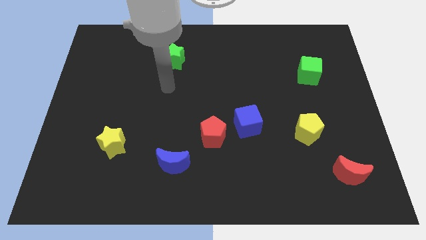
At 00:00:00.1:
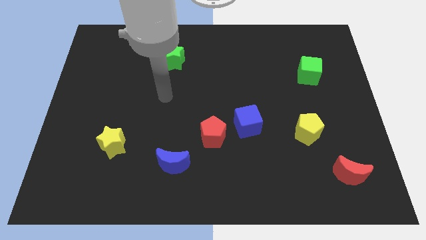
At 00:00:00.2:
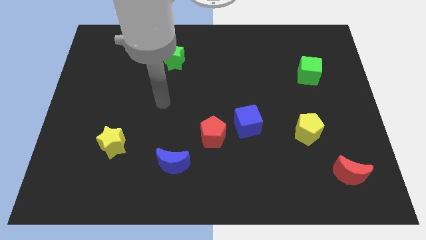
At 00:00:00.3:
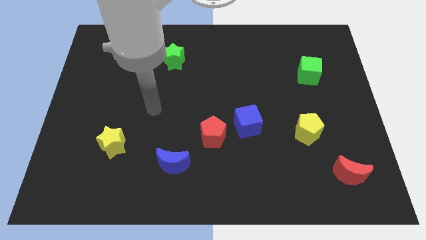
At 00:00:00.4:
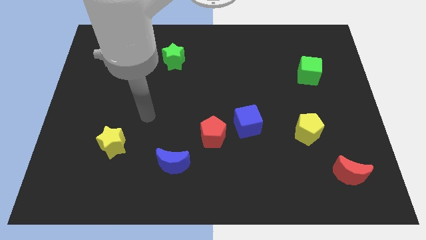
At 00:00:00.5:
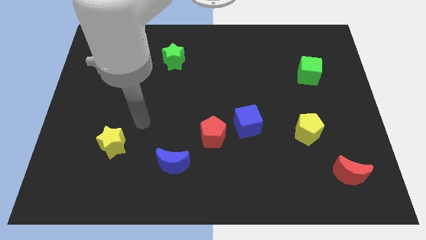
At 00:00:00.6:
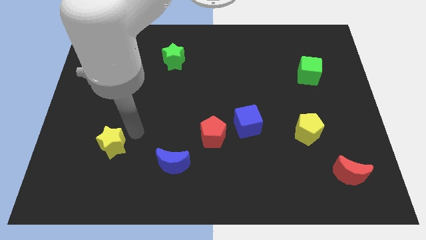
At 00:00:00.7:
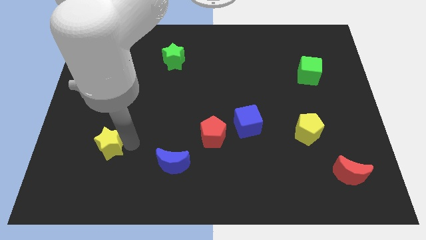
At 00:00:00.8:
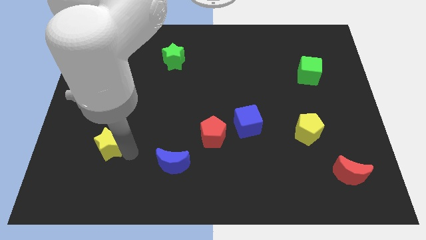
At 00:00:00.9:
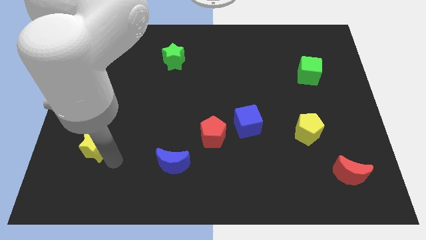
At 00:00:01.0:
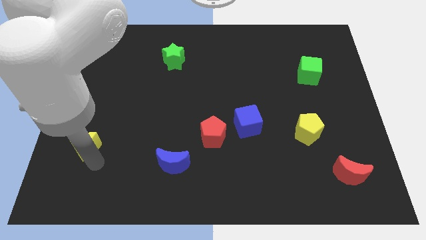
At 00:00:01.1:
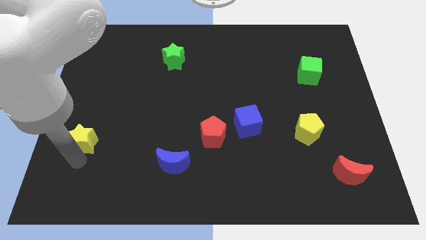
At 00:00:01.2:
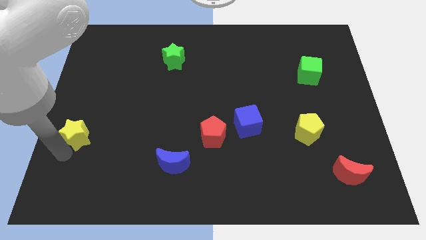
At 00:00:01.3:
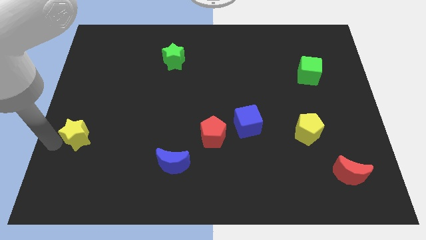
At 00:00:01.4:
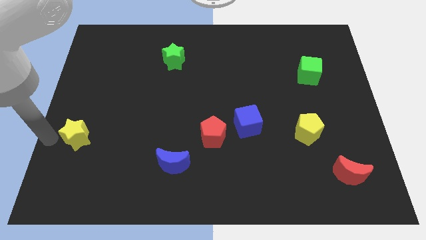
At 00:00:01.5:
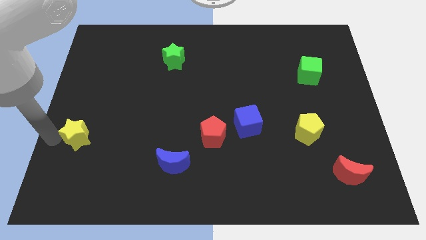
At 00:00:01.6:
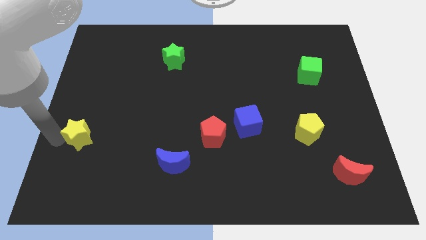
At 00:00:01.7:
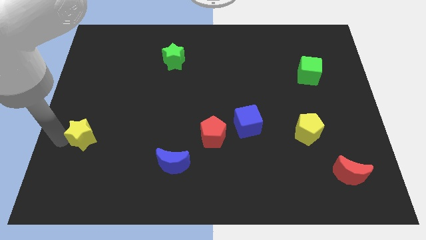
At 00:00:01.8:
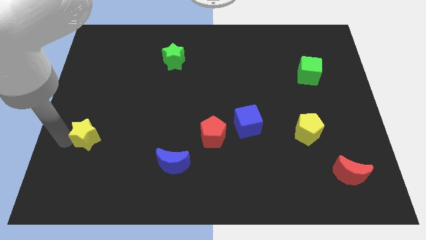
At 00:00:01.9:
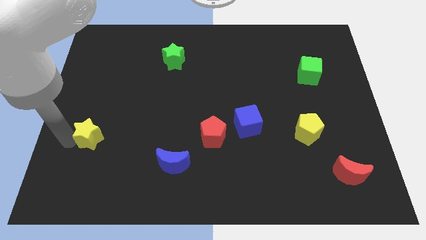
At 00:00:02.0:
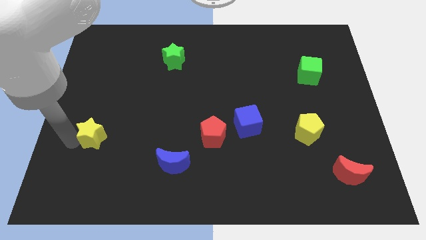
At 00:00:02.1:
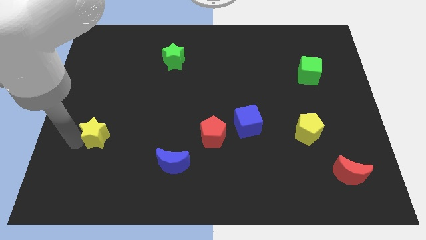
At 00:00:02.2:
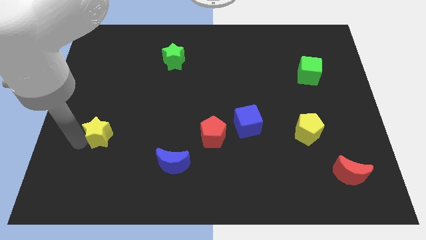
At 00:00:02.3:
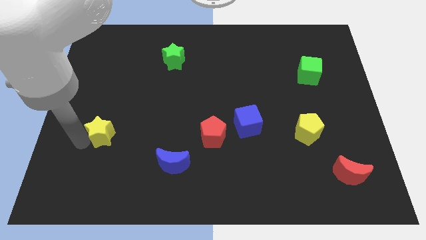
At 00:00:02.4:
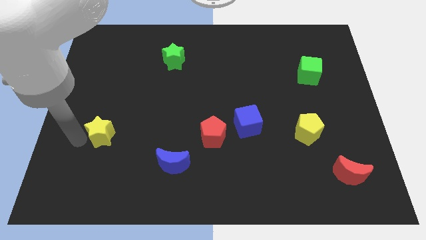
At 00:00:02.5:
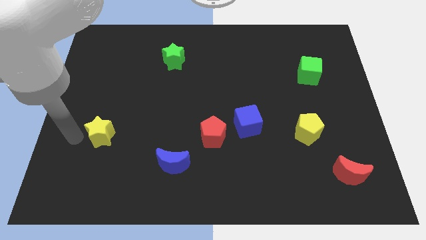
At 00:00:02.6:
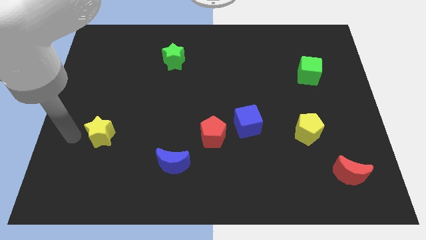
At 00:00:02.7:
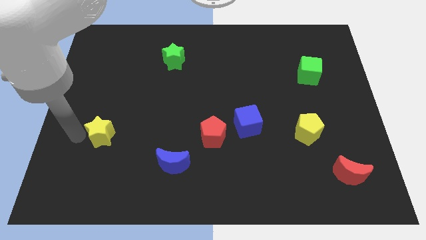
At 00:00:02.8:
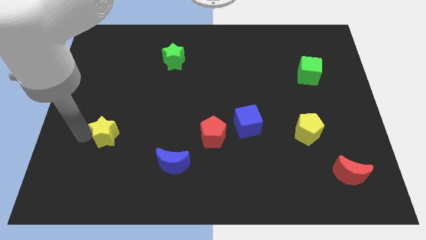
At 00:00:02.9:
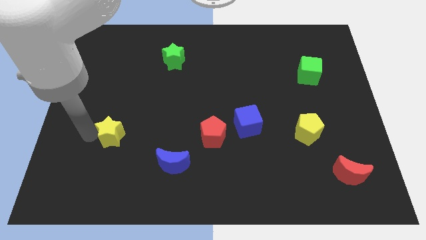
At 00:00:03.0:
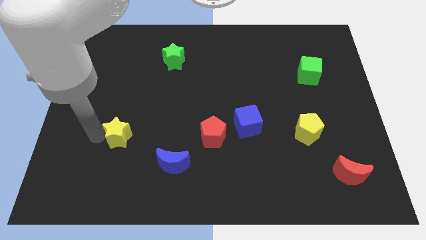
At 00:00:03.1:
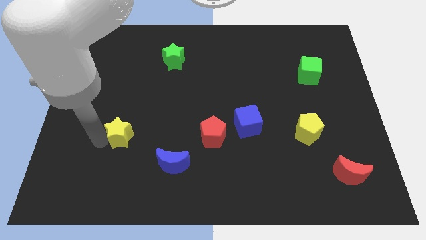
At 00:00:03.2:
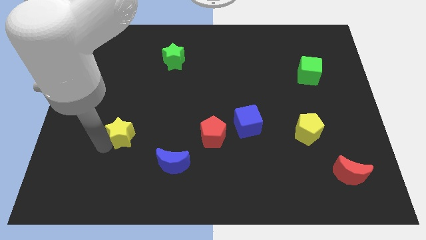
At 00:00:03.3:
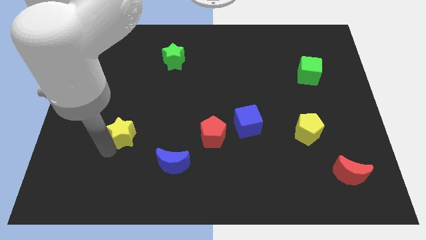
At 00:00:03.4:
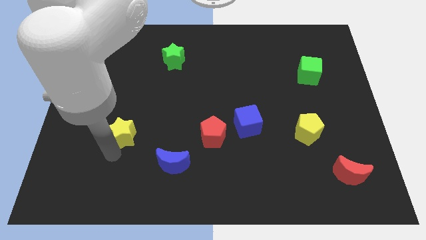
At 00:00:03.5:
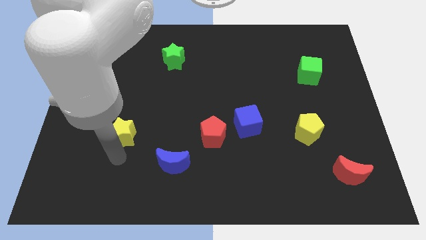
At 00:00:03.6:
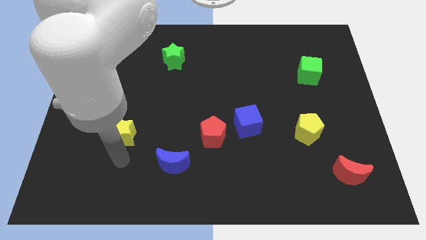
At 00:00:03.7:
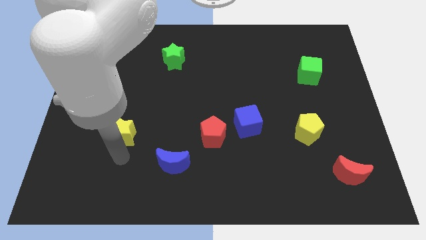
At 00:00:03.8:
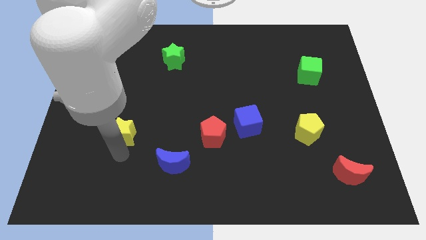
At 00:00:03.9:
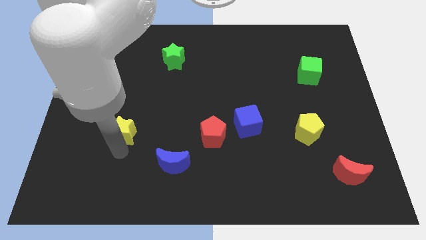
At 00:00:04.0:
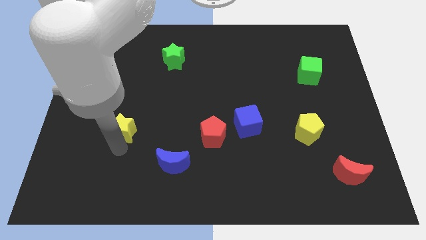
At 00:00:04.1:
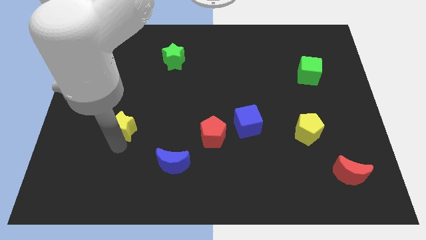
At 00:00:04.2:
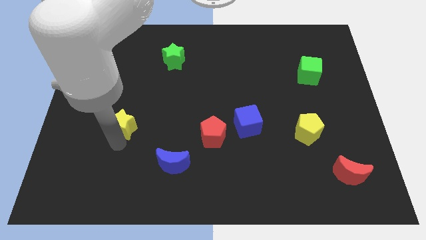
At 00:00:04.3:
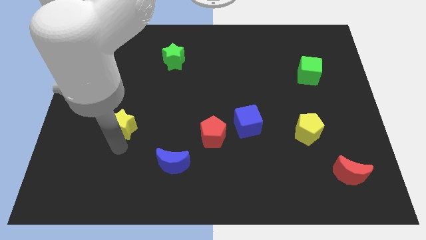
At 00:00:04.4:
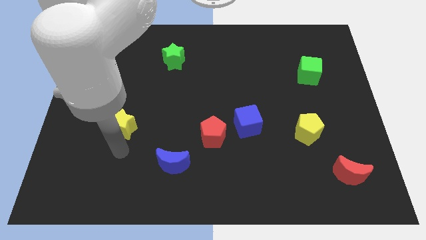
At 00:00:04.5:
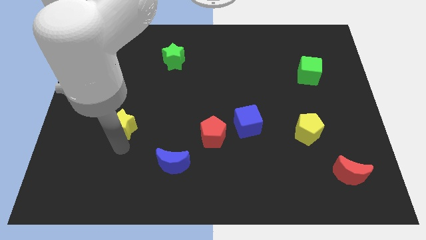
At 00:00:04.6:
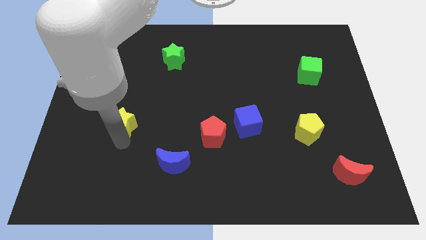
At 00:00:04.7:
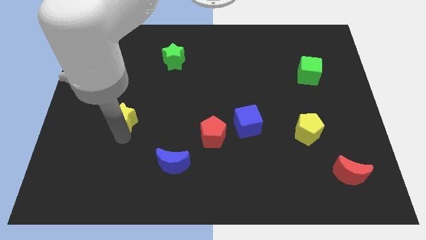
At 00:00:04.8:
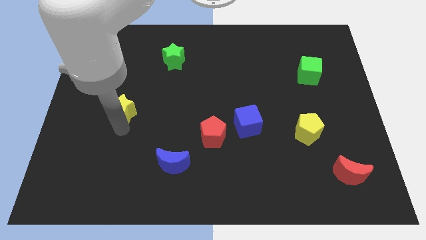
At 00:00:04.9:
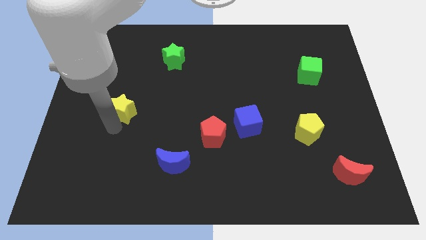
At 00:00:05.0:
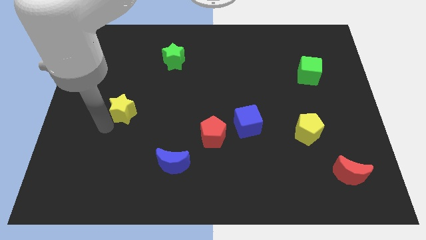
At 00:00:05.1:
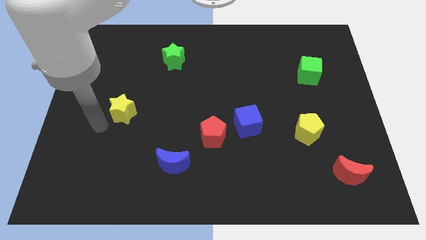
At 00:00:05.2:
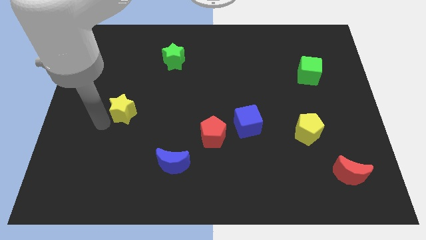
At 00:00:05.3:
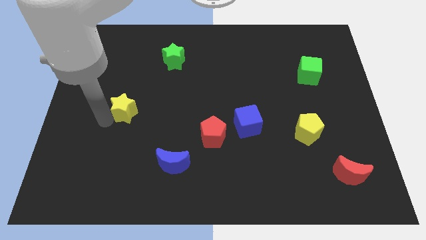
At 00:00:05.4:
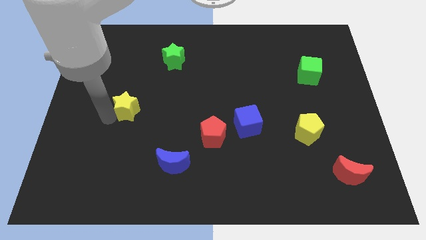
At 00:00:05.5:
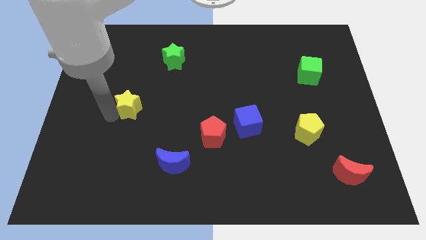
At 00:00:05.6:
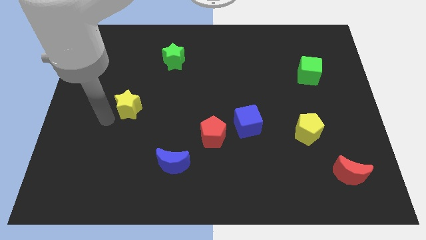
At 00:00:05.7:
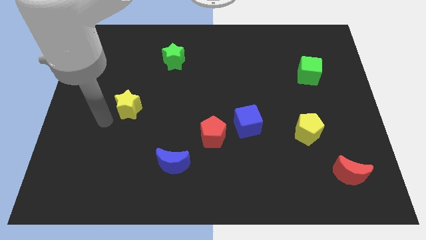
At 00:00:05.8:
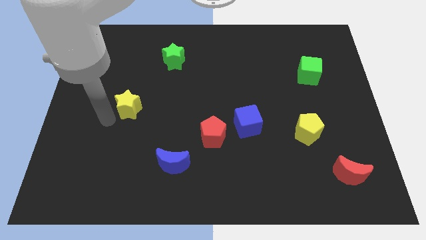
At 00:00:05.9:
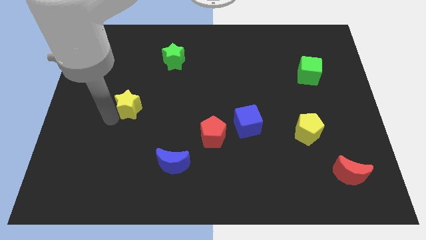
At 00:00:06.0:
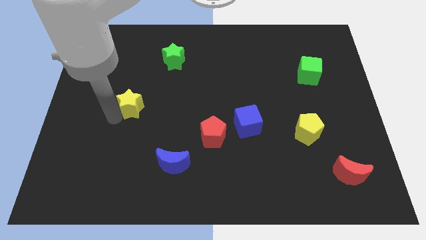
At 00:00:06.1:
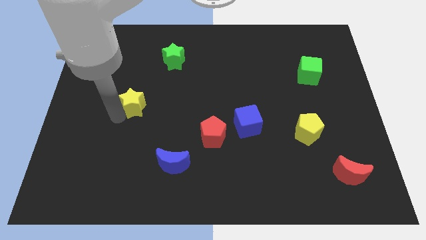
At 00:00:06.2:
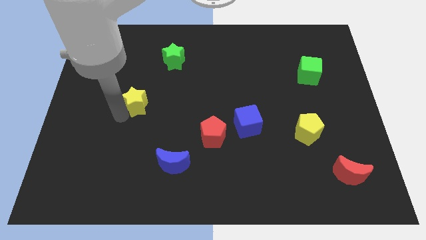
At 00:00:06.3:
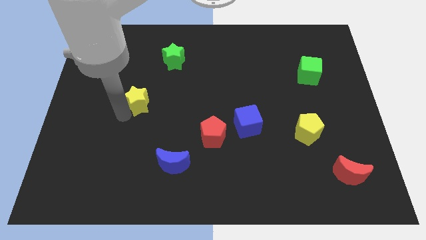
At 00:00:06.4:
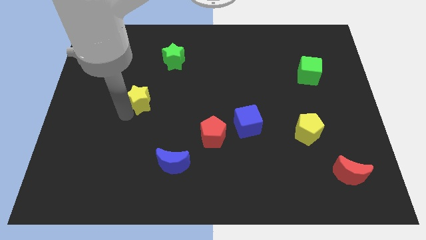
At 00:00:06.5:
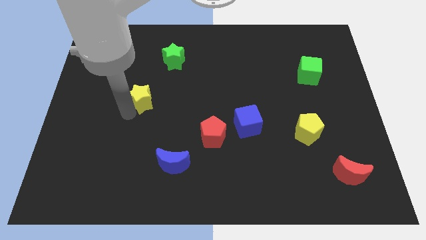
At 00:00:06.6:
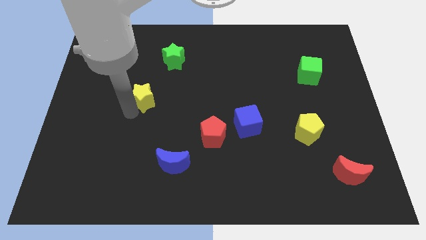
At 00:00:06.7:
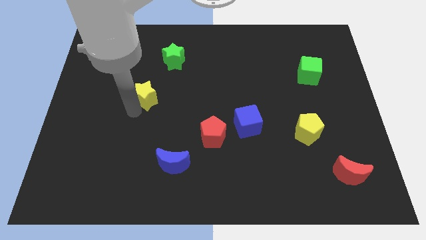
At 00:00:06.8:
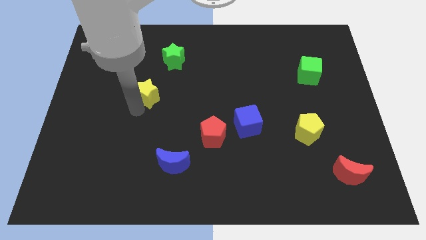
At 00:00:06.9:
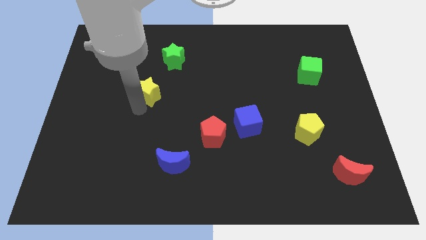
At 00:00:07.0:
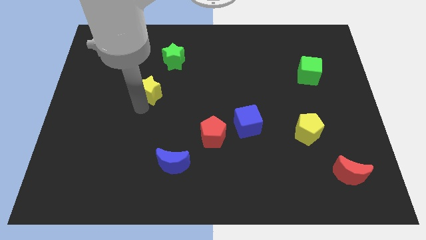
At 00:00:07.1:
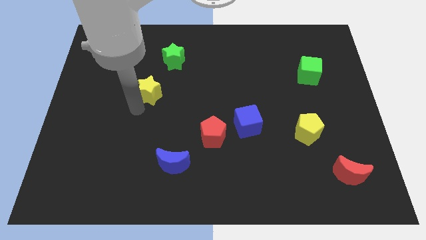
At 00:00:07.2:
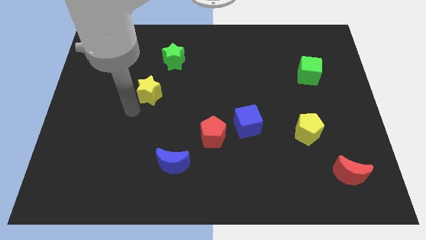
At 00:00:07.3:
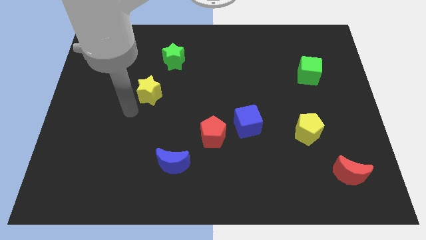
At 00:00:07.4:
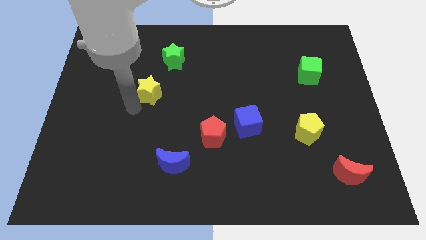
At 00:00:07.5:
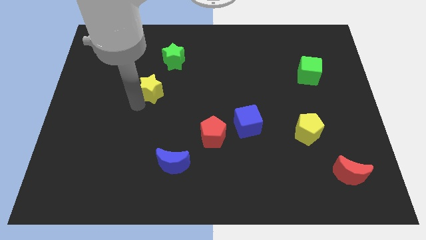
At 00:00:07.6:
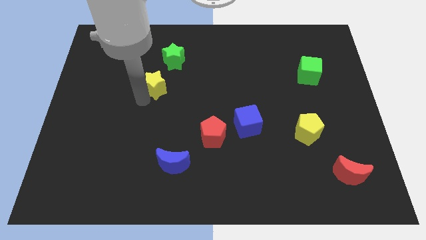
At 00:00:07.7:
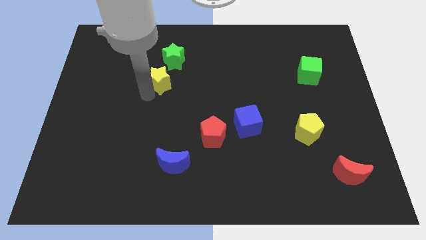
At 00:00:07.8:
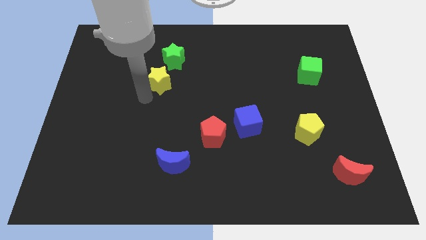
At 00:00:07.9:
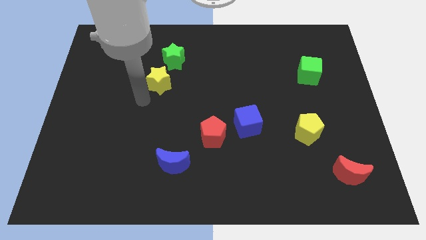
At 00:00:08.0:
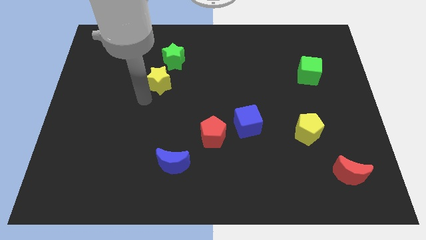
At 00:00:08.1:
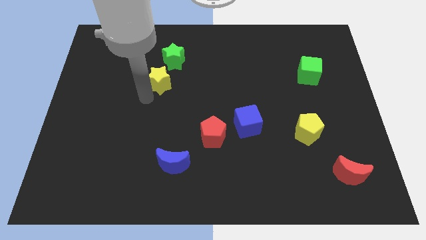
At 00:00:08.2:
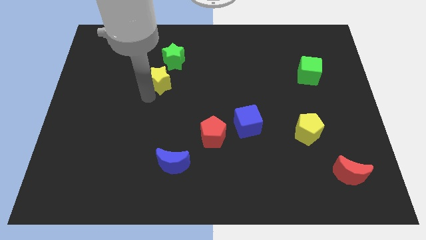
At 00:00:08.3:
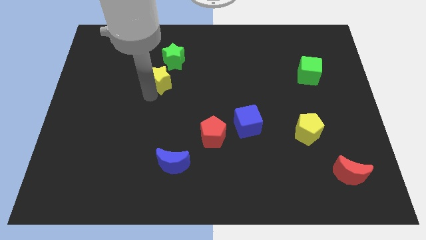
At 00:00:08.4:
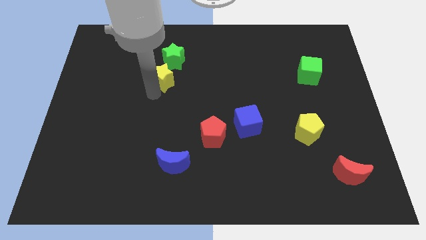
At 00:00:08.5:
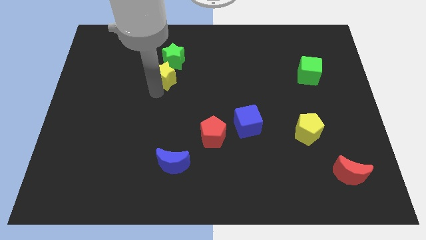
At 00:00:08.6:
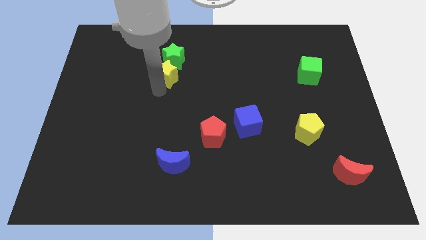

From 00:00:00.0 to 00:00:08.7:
move the yellow star close to the green star
